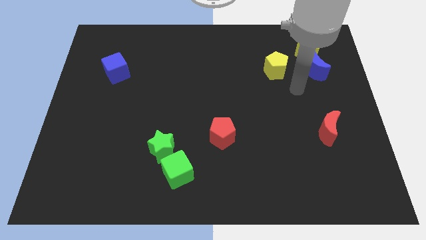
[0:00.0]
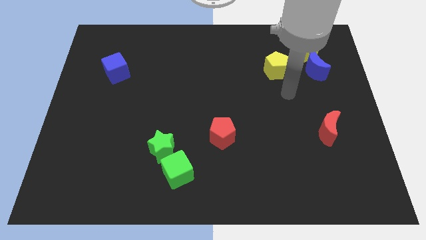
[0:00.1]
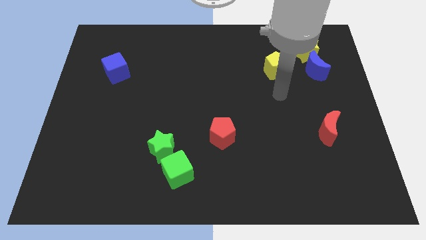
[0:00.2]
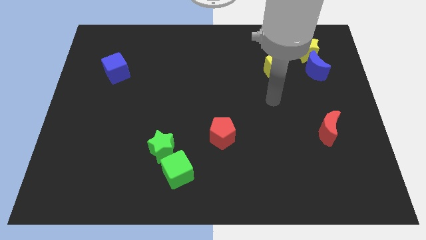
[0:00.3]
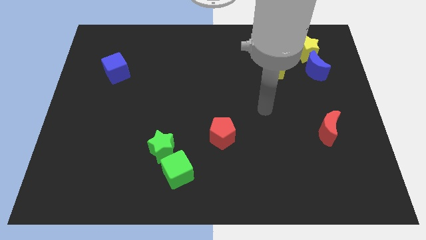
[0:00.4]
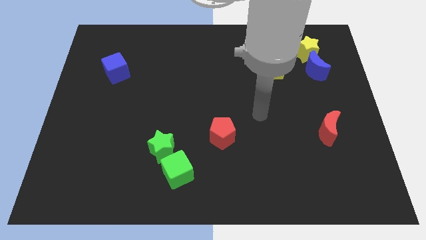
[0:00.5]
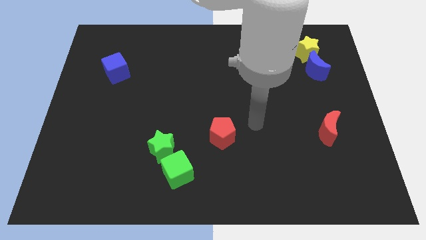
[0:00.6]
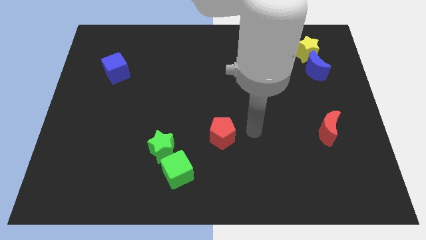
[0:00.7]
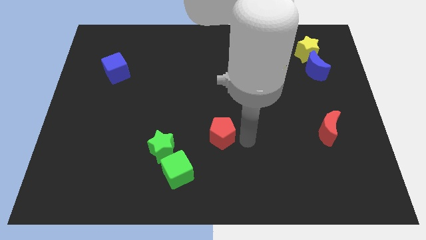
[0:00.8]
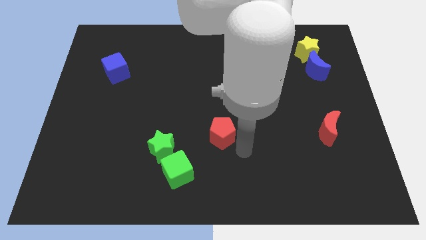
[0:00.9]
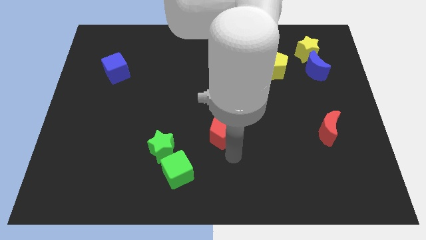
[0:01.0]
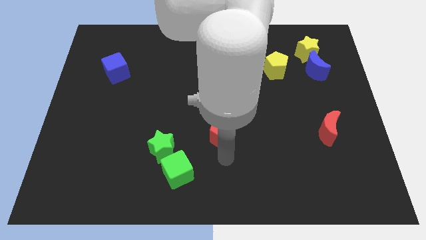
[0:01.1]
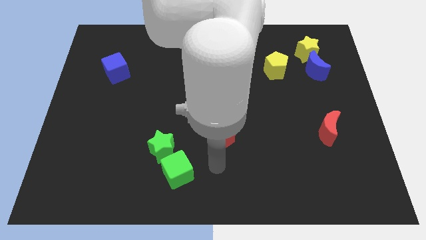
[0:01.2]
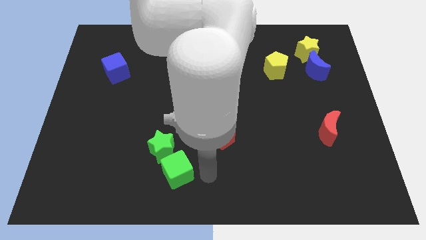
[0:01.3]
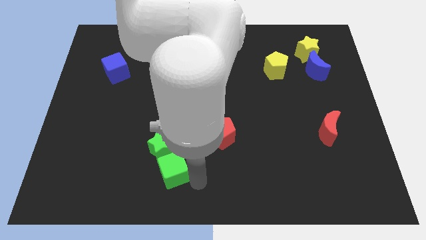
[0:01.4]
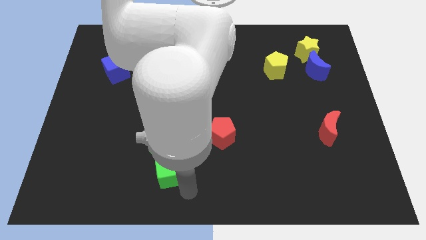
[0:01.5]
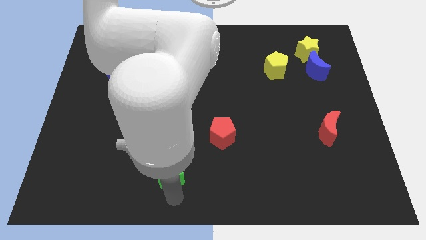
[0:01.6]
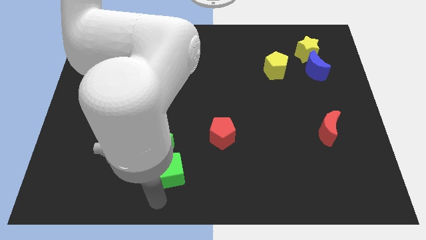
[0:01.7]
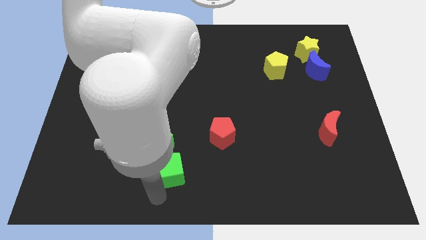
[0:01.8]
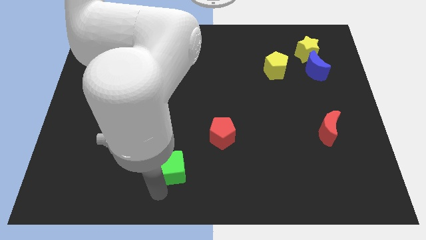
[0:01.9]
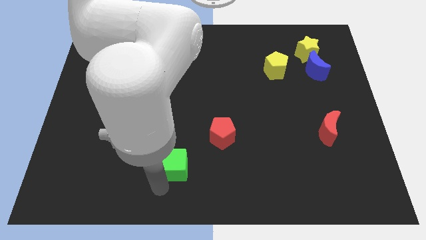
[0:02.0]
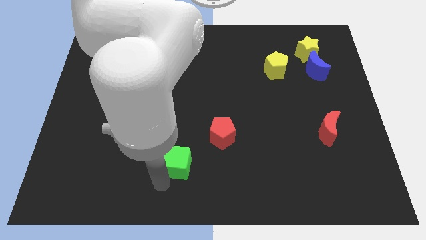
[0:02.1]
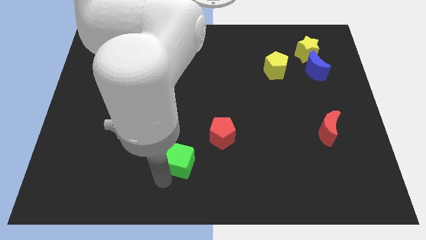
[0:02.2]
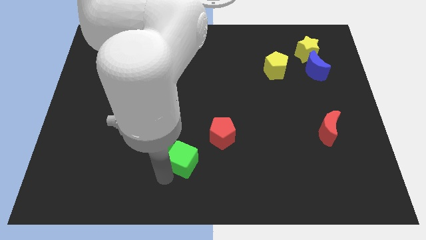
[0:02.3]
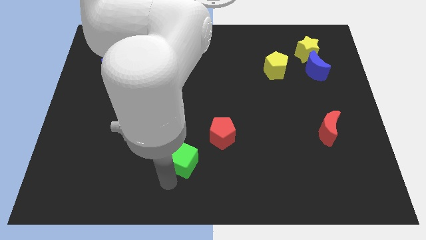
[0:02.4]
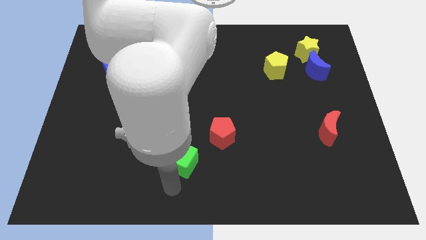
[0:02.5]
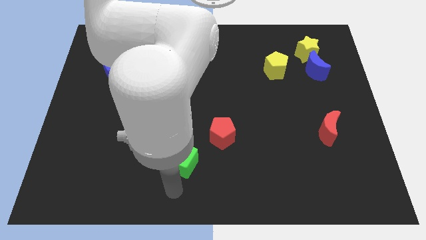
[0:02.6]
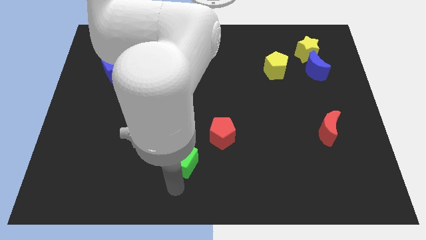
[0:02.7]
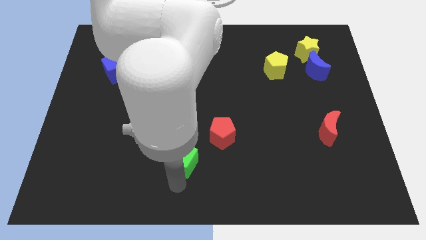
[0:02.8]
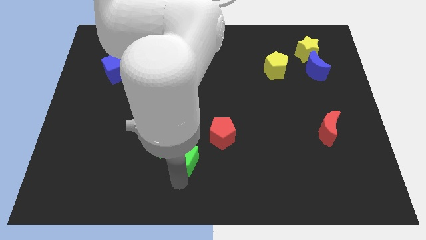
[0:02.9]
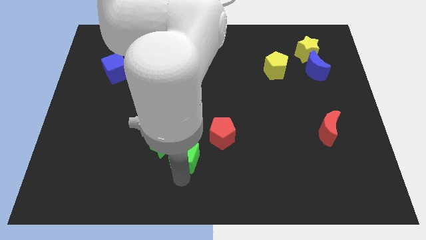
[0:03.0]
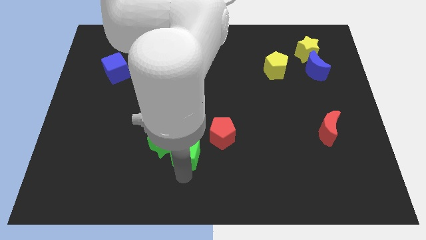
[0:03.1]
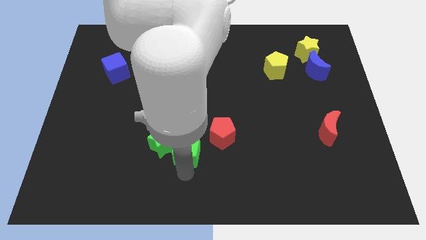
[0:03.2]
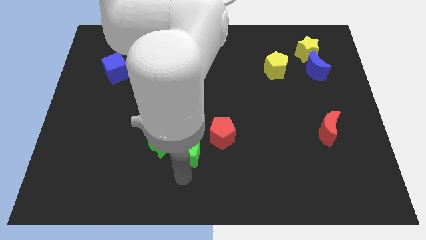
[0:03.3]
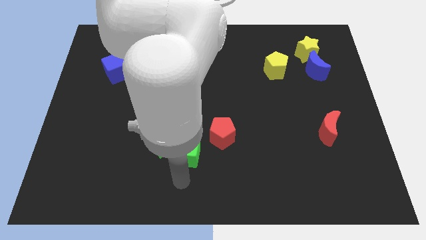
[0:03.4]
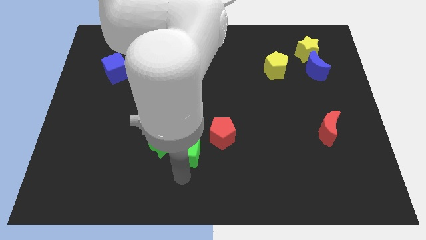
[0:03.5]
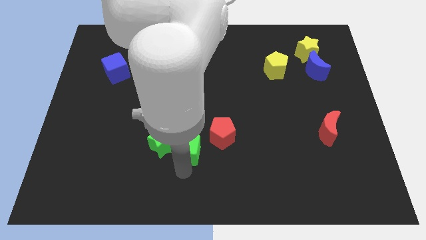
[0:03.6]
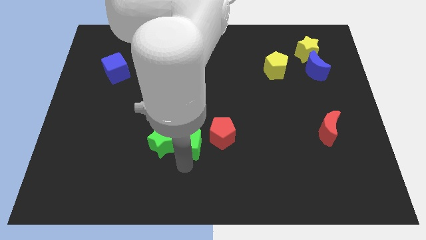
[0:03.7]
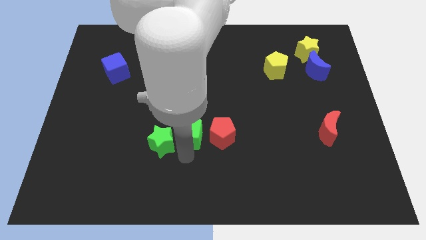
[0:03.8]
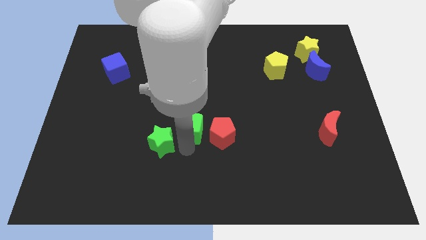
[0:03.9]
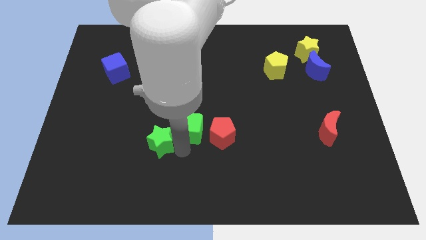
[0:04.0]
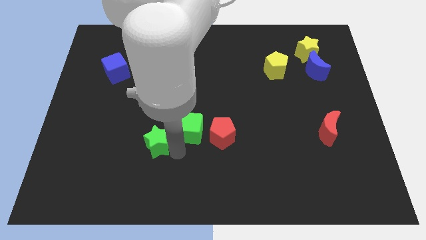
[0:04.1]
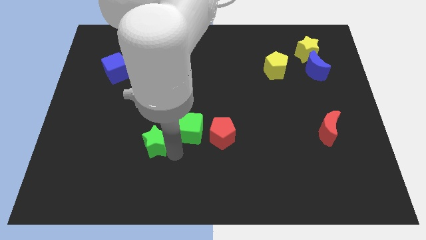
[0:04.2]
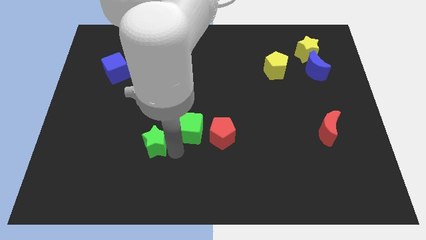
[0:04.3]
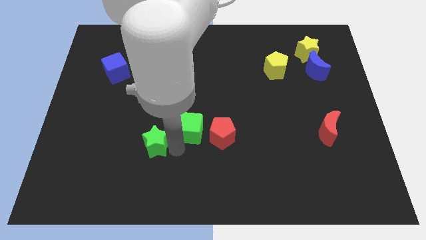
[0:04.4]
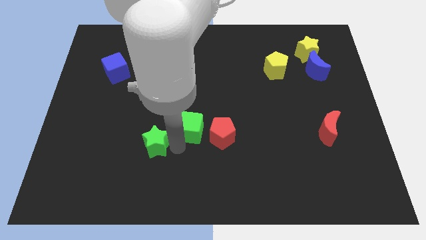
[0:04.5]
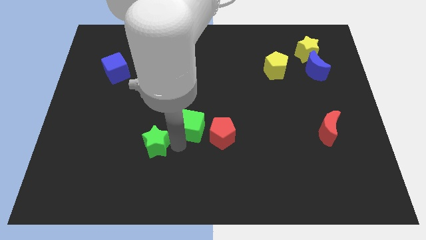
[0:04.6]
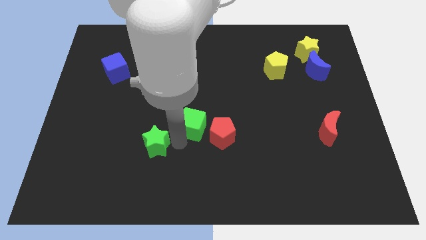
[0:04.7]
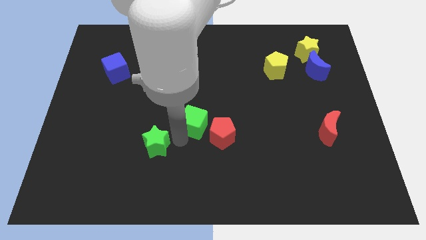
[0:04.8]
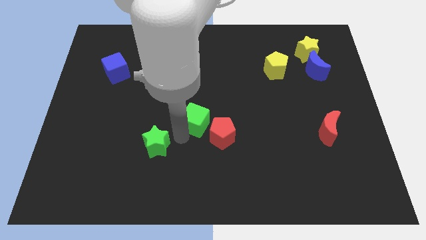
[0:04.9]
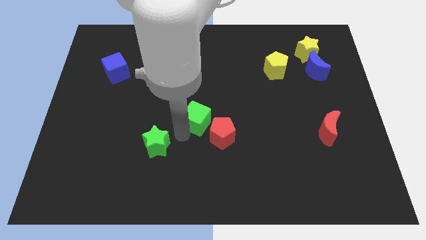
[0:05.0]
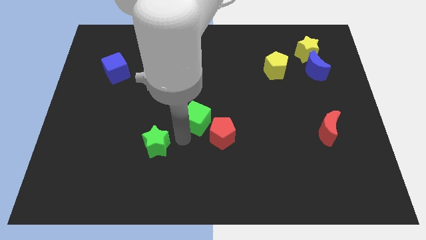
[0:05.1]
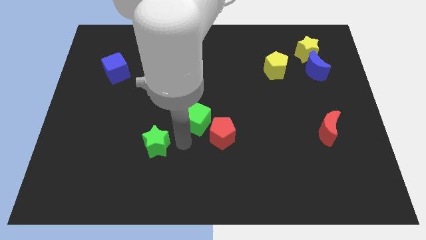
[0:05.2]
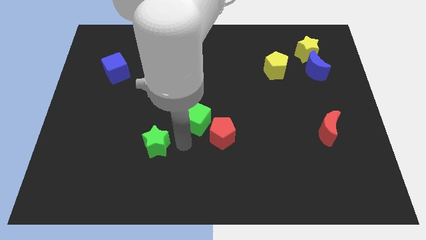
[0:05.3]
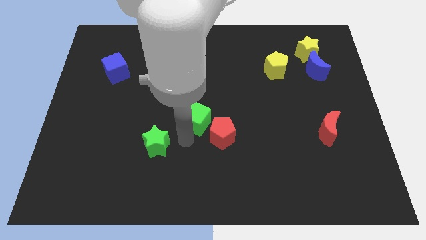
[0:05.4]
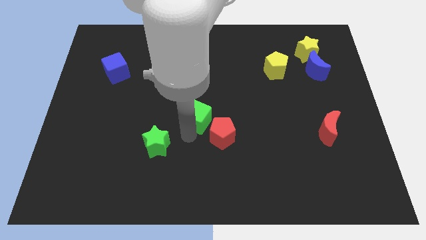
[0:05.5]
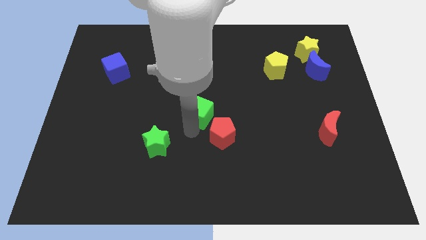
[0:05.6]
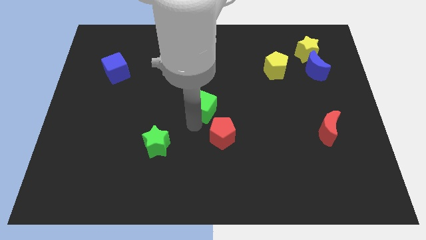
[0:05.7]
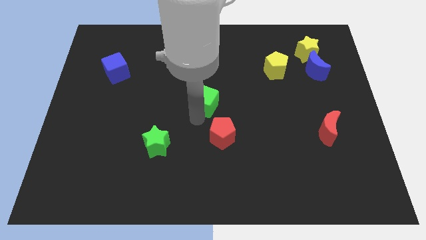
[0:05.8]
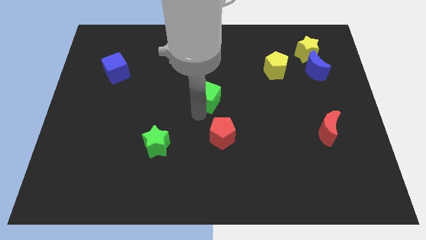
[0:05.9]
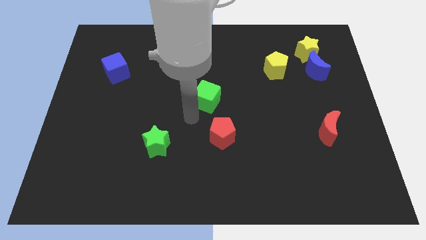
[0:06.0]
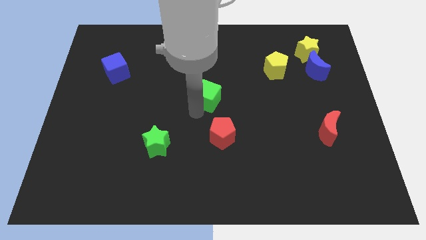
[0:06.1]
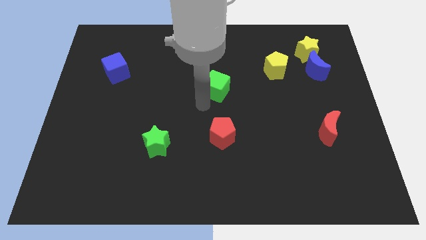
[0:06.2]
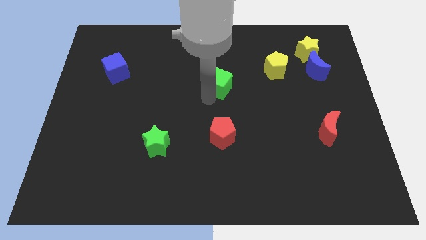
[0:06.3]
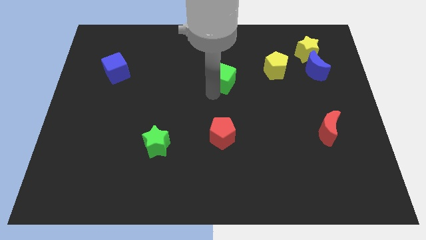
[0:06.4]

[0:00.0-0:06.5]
put the green cube left of the yellow pentagon
